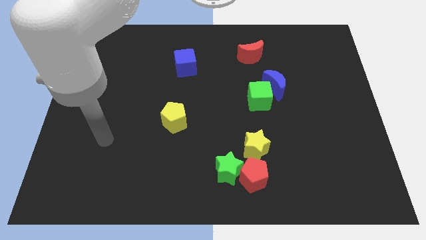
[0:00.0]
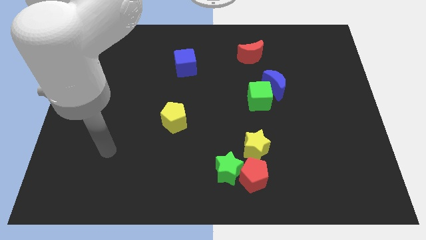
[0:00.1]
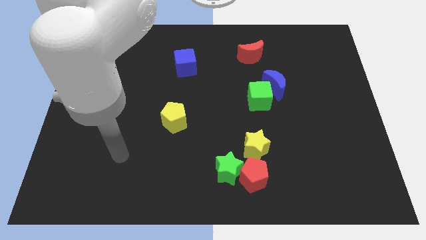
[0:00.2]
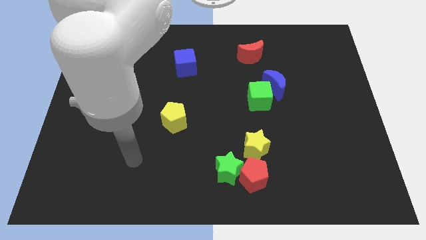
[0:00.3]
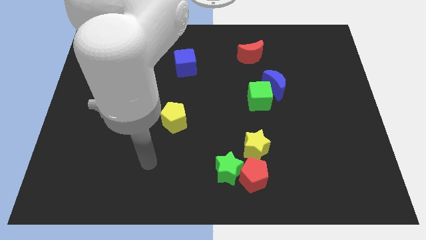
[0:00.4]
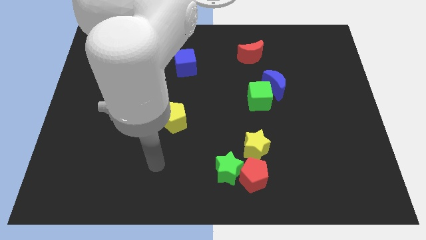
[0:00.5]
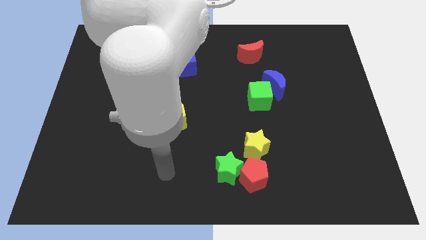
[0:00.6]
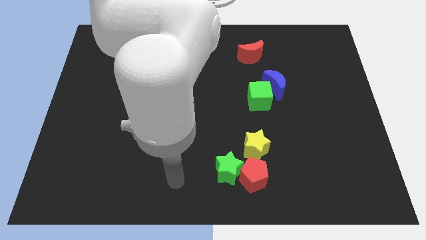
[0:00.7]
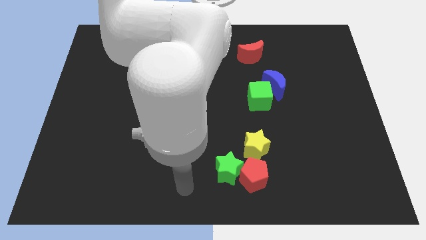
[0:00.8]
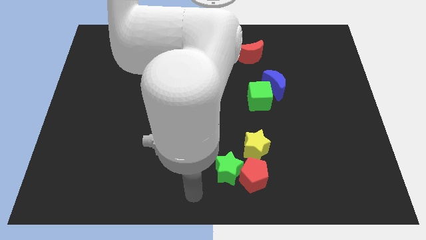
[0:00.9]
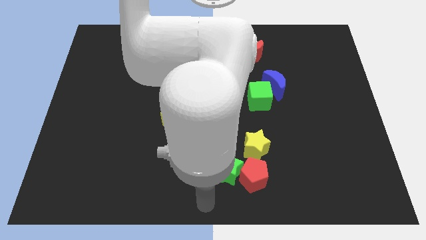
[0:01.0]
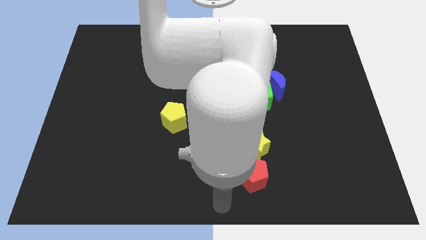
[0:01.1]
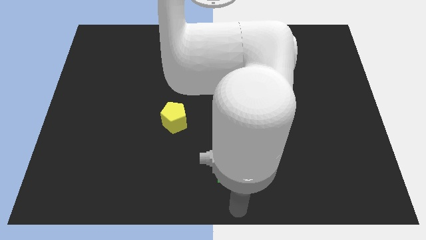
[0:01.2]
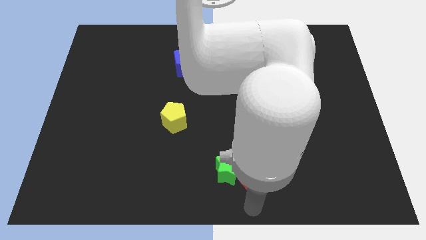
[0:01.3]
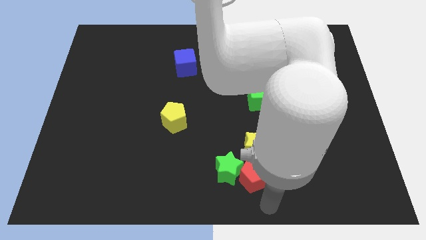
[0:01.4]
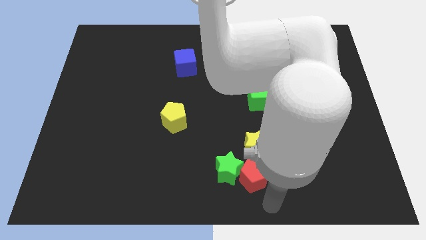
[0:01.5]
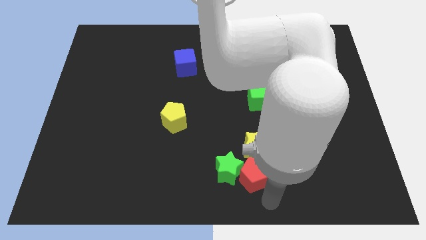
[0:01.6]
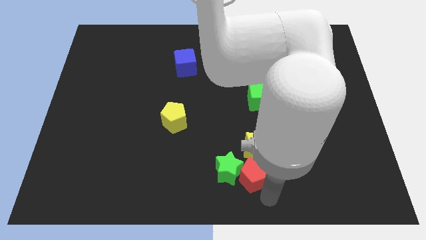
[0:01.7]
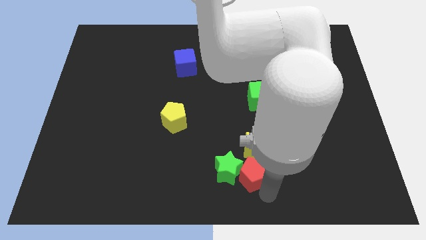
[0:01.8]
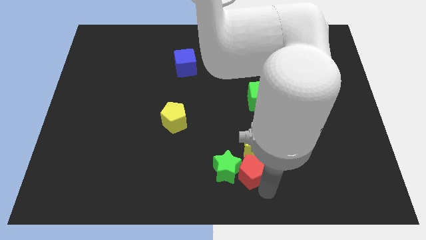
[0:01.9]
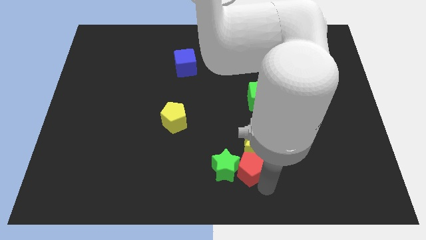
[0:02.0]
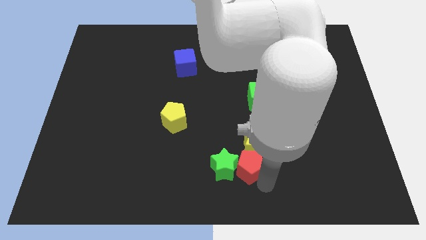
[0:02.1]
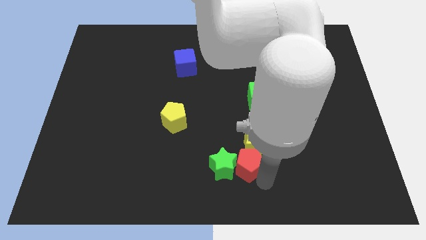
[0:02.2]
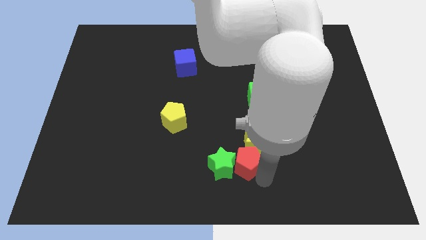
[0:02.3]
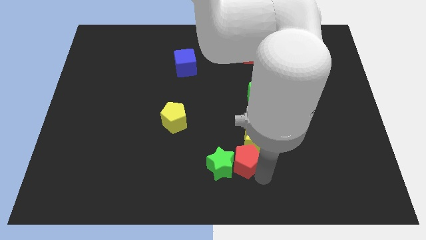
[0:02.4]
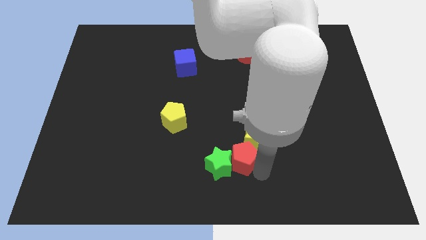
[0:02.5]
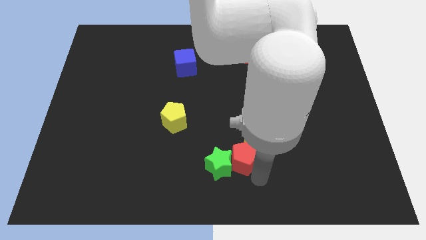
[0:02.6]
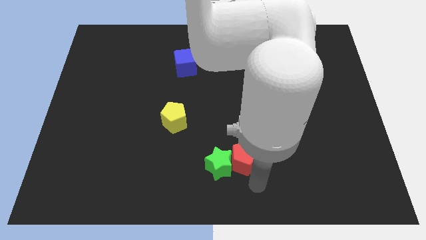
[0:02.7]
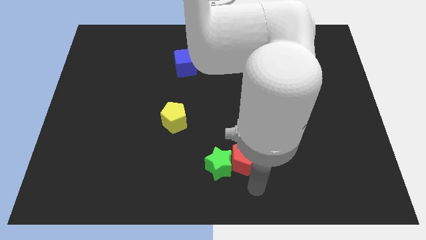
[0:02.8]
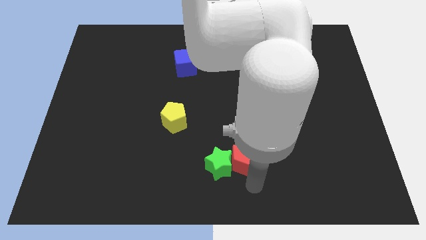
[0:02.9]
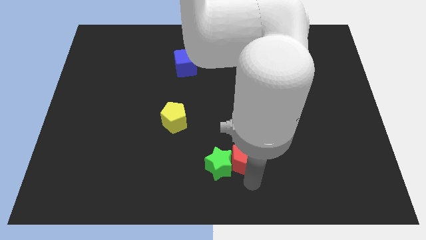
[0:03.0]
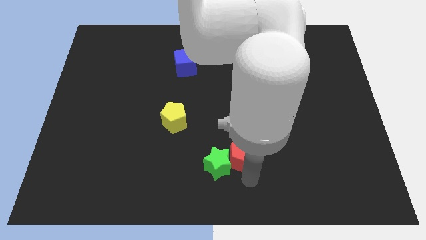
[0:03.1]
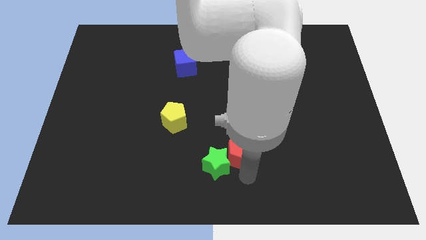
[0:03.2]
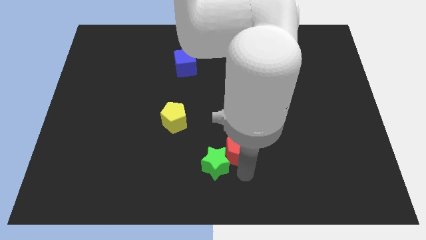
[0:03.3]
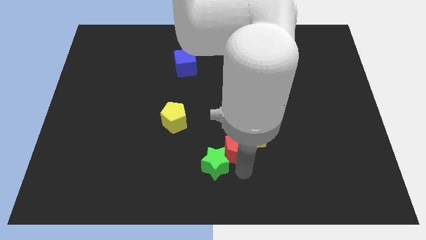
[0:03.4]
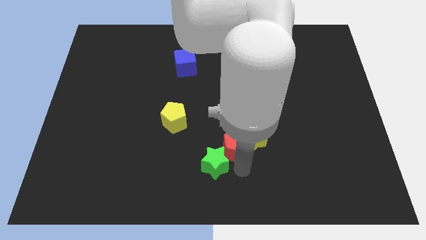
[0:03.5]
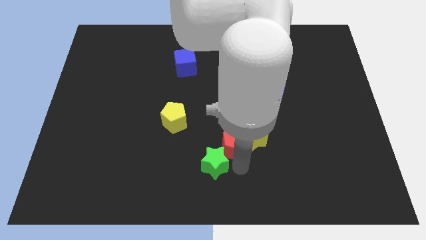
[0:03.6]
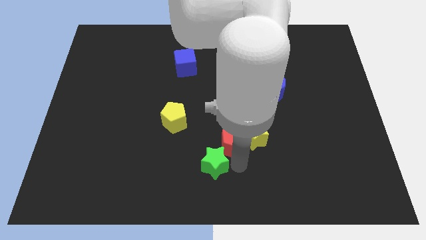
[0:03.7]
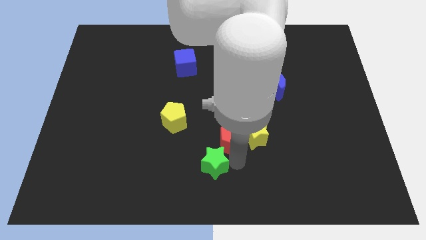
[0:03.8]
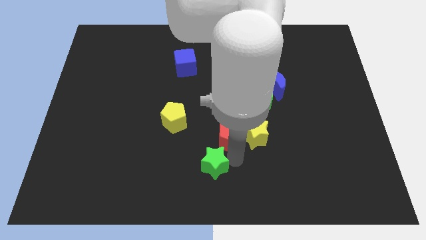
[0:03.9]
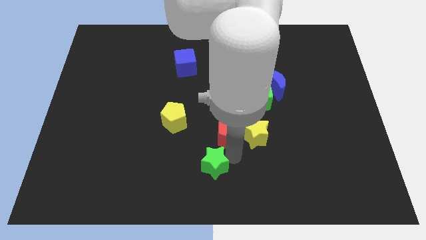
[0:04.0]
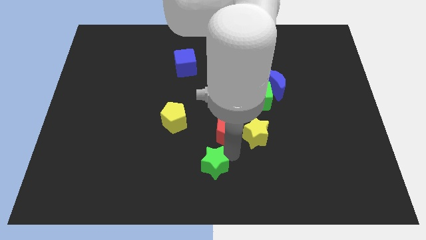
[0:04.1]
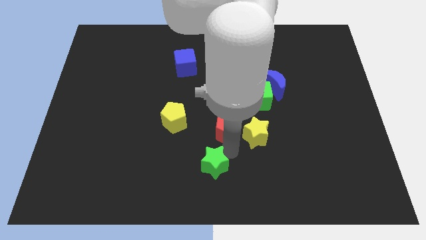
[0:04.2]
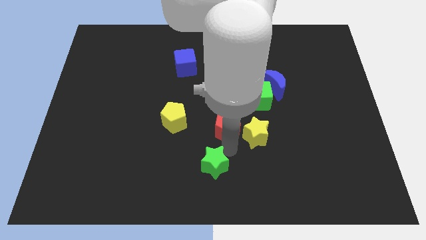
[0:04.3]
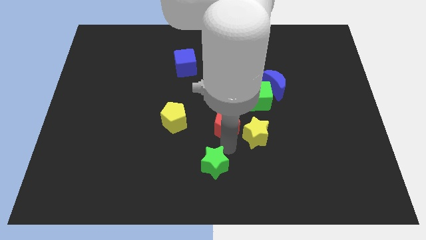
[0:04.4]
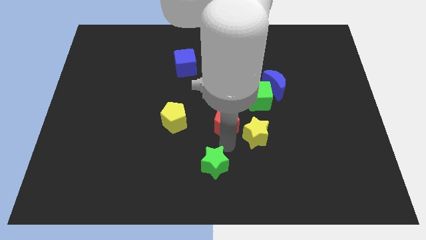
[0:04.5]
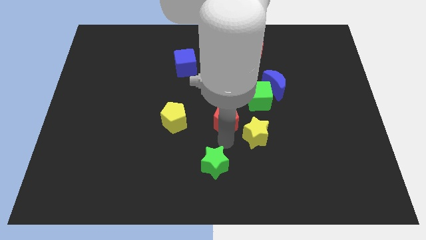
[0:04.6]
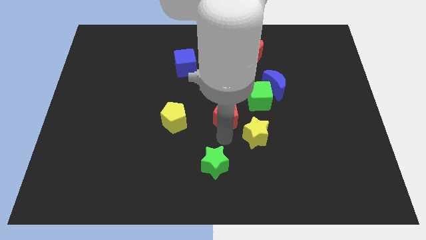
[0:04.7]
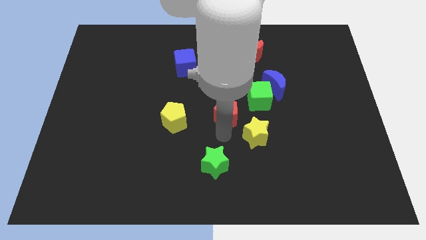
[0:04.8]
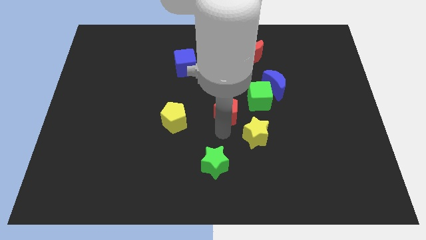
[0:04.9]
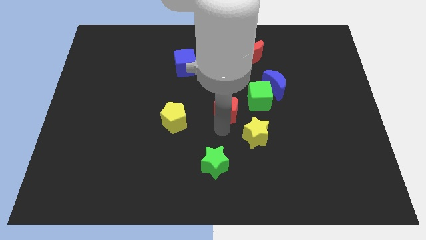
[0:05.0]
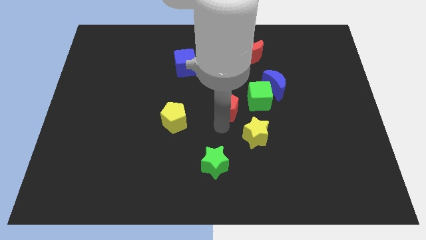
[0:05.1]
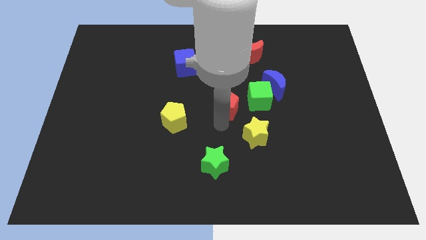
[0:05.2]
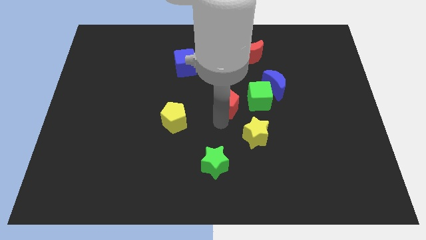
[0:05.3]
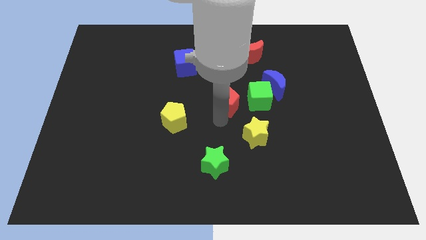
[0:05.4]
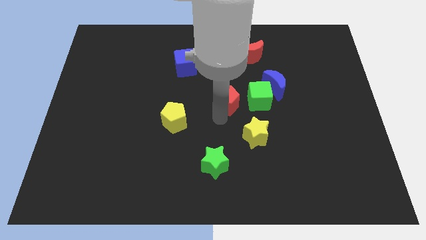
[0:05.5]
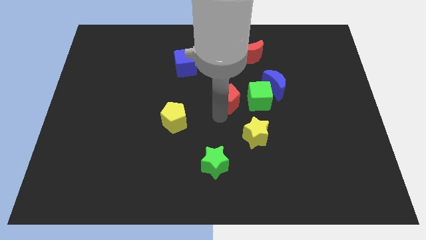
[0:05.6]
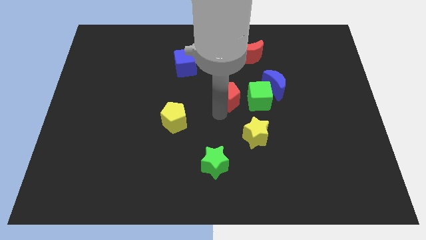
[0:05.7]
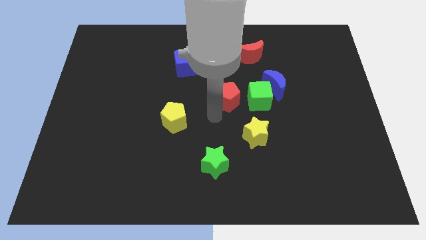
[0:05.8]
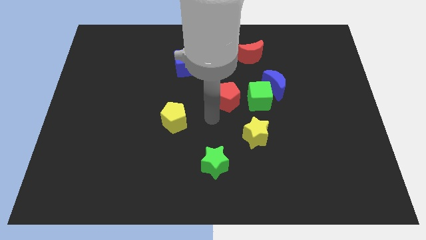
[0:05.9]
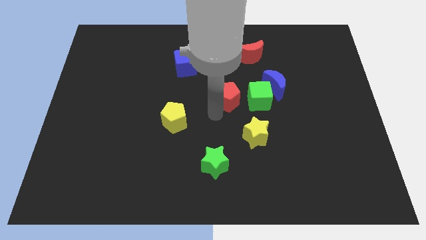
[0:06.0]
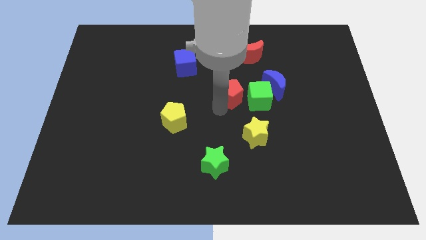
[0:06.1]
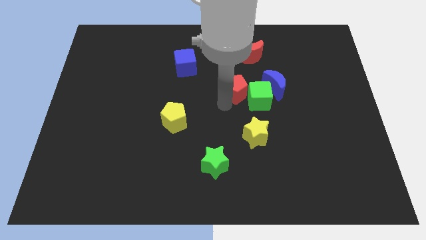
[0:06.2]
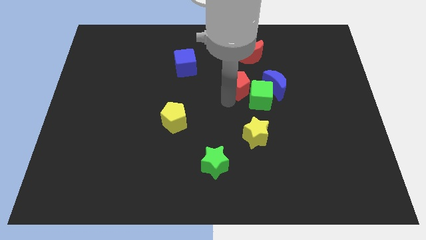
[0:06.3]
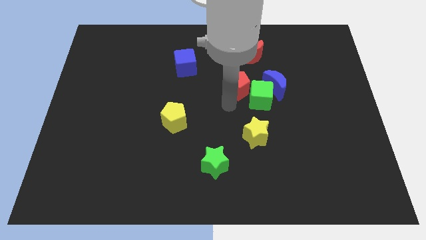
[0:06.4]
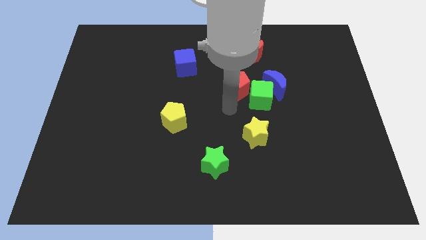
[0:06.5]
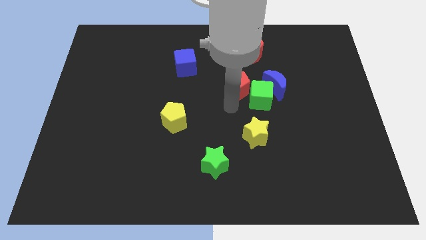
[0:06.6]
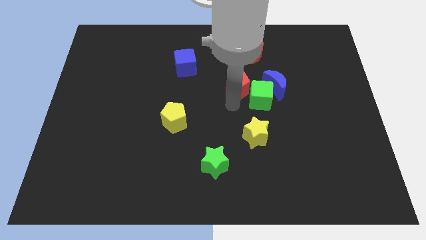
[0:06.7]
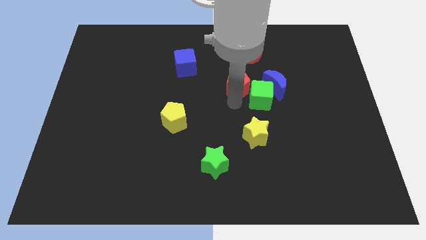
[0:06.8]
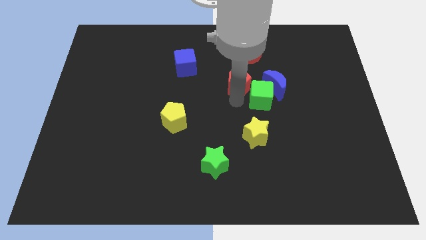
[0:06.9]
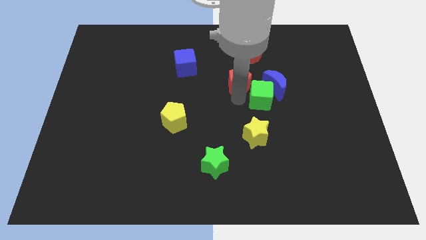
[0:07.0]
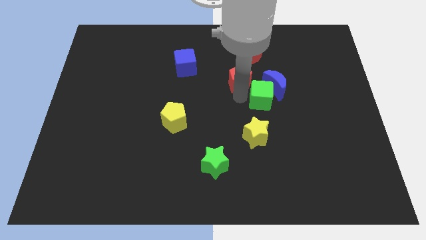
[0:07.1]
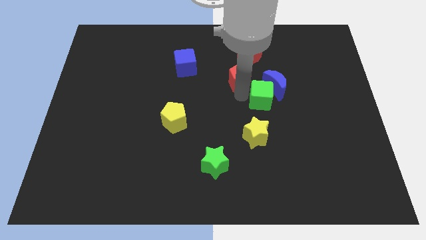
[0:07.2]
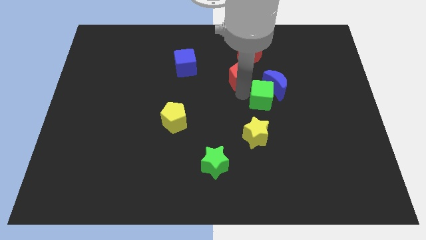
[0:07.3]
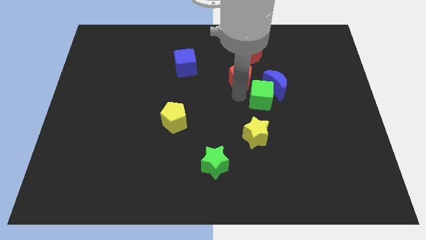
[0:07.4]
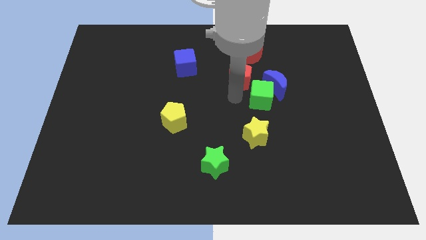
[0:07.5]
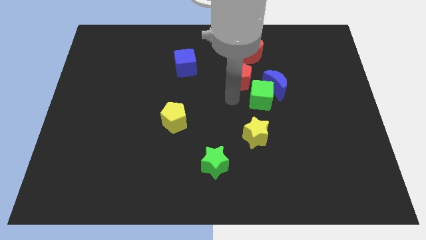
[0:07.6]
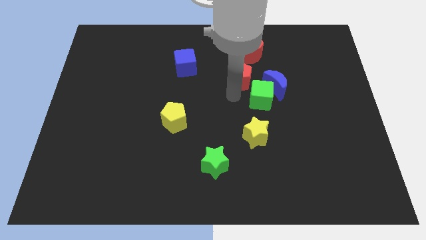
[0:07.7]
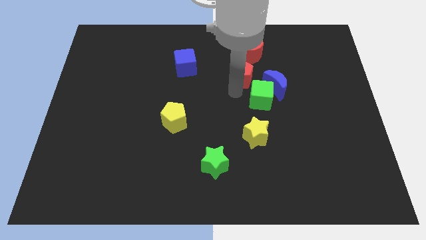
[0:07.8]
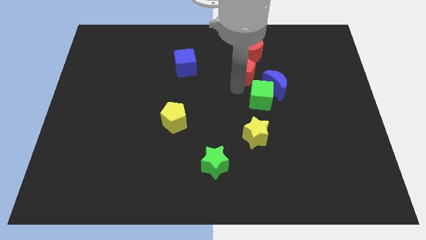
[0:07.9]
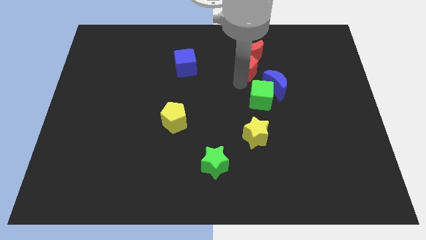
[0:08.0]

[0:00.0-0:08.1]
slide the red pentagon to the red moon
